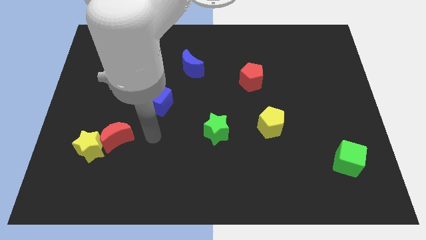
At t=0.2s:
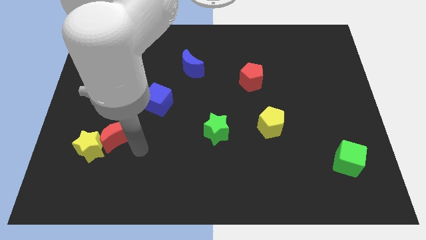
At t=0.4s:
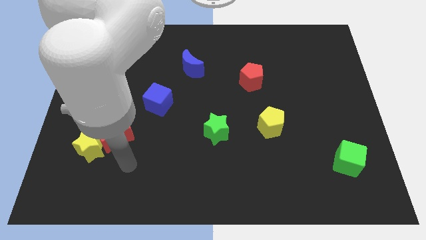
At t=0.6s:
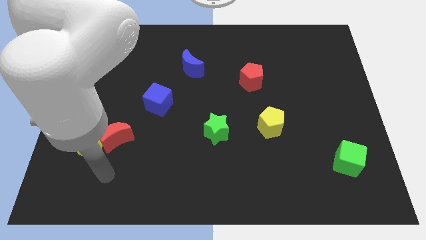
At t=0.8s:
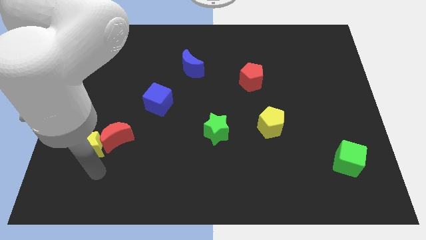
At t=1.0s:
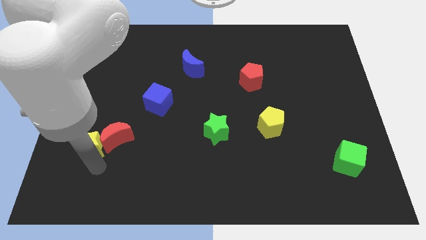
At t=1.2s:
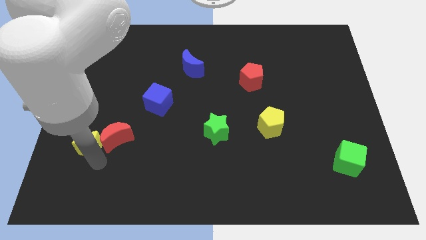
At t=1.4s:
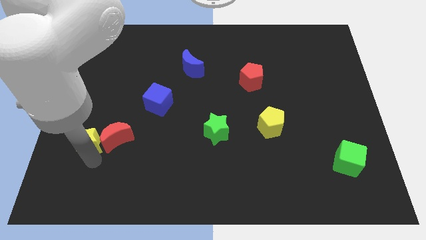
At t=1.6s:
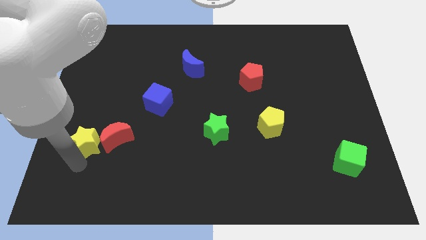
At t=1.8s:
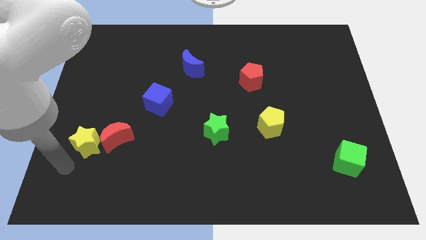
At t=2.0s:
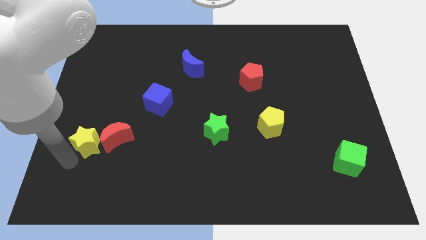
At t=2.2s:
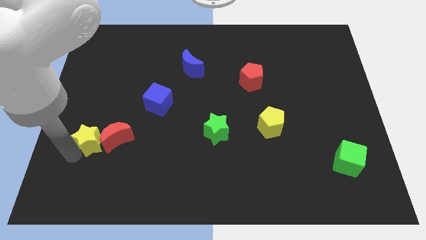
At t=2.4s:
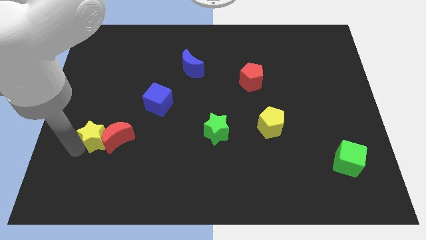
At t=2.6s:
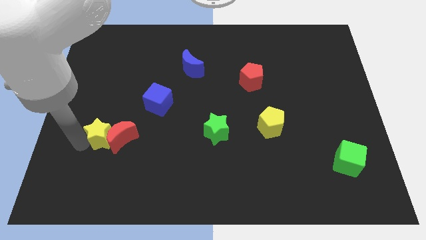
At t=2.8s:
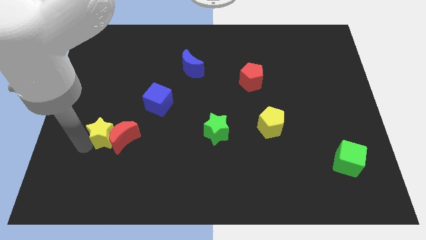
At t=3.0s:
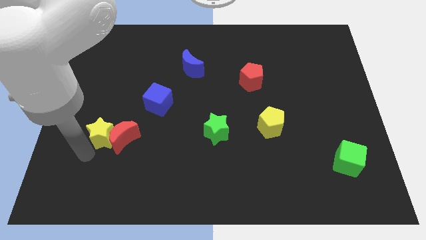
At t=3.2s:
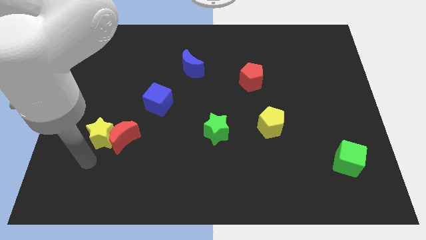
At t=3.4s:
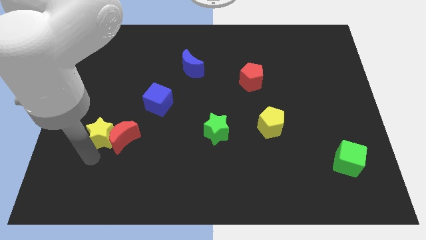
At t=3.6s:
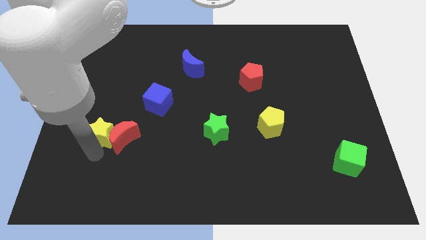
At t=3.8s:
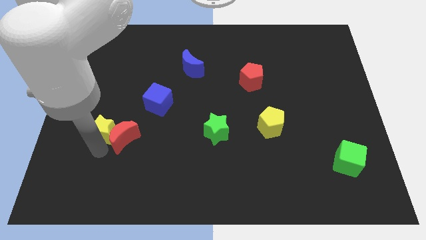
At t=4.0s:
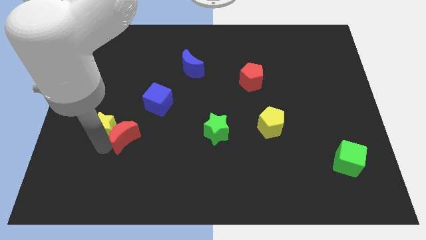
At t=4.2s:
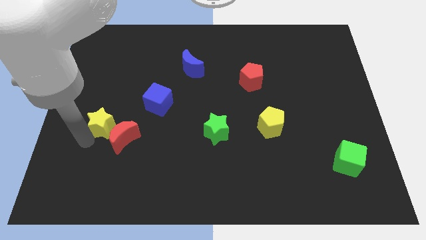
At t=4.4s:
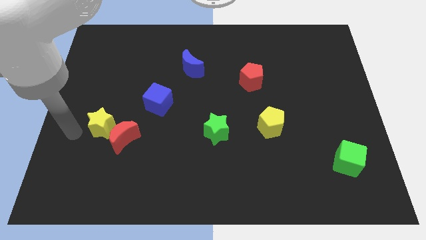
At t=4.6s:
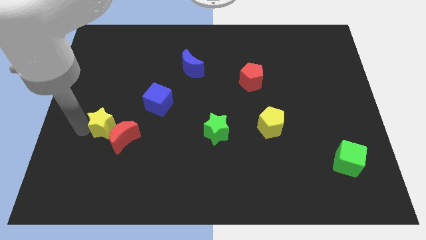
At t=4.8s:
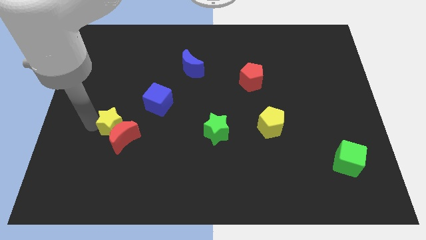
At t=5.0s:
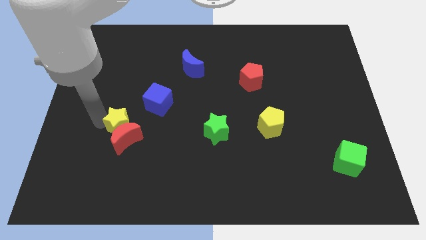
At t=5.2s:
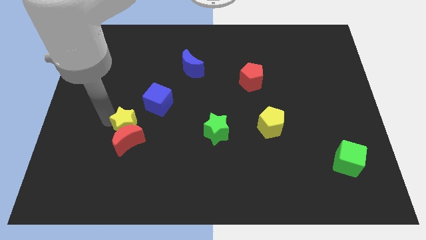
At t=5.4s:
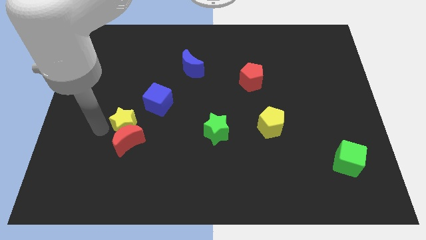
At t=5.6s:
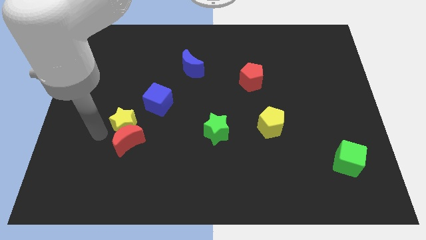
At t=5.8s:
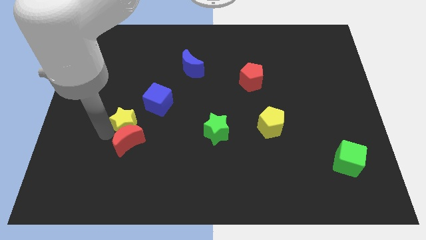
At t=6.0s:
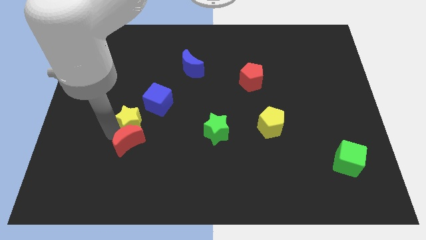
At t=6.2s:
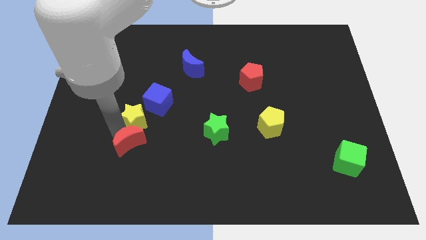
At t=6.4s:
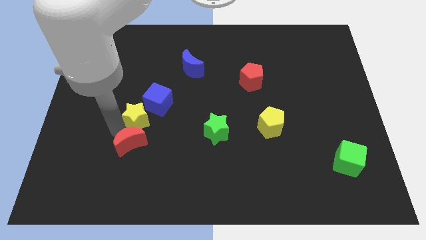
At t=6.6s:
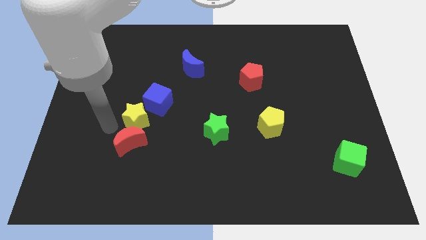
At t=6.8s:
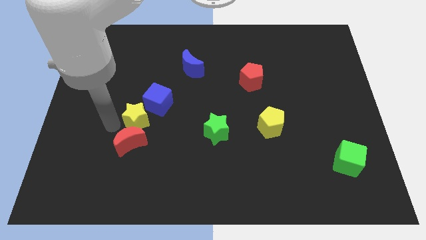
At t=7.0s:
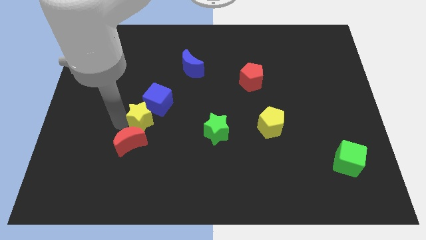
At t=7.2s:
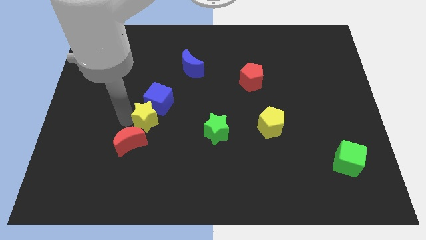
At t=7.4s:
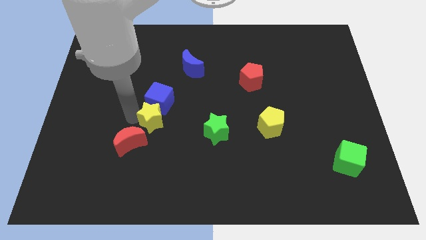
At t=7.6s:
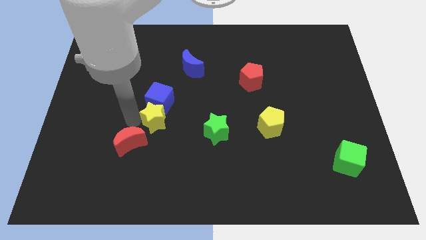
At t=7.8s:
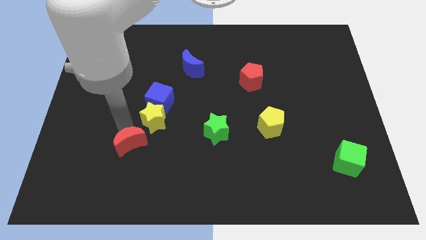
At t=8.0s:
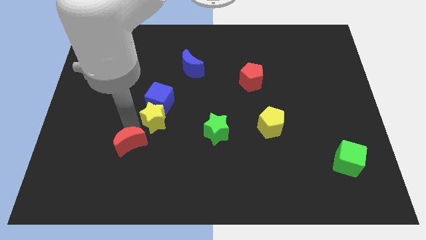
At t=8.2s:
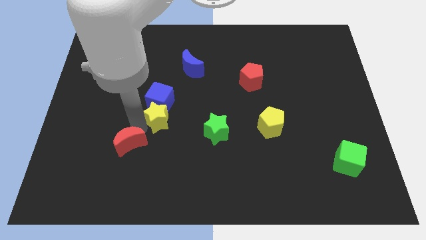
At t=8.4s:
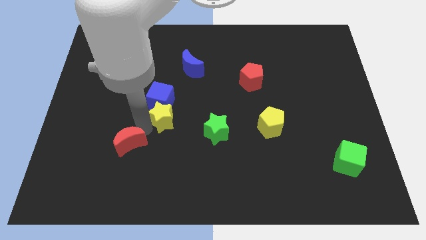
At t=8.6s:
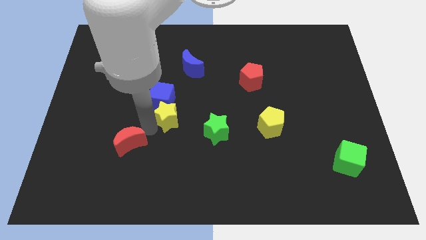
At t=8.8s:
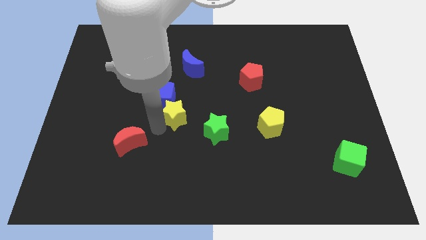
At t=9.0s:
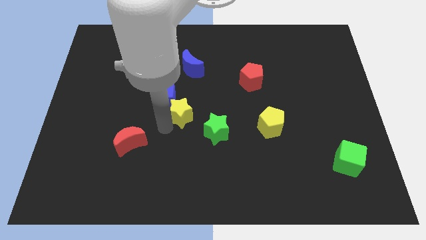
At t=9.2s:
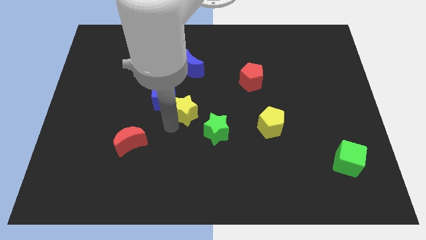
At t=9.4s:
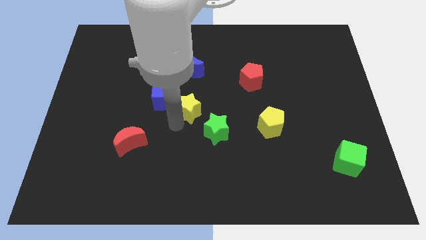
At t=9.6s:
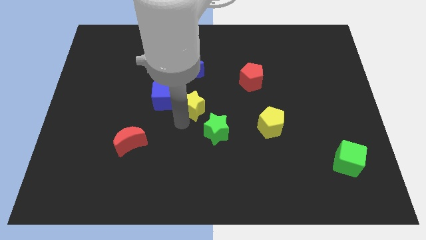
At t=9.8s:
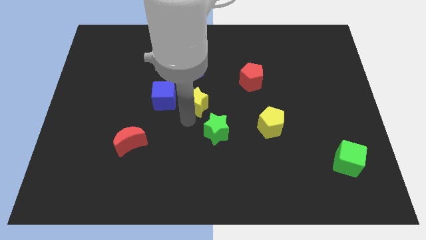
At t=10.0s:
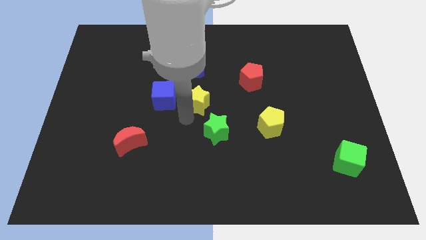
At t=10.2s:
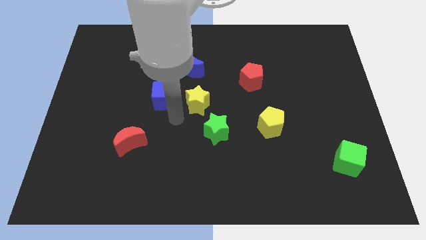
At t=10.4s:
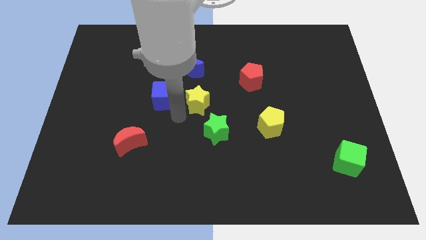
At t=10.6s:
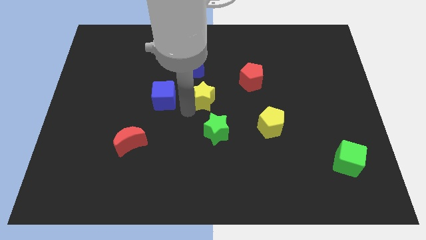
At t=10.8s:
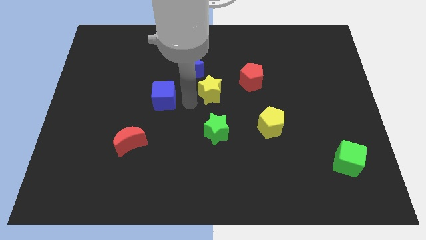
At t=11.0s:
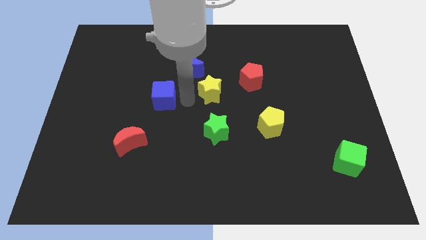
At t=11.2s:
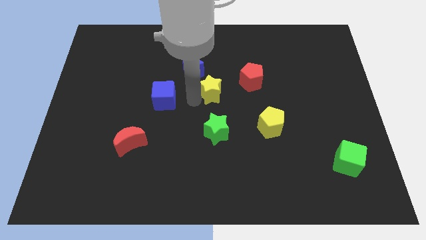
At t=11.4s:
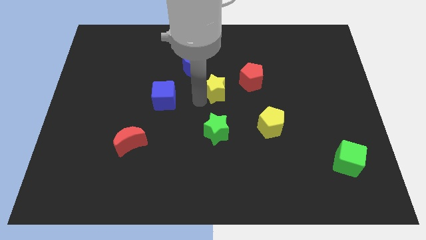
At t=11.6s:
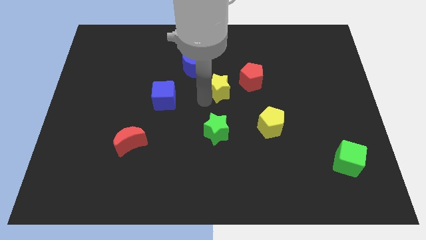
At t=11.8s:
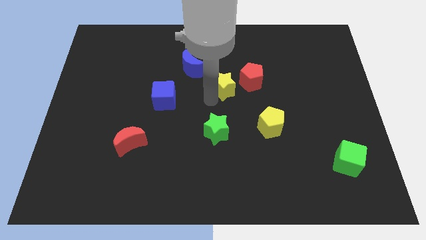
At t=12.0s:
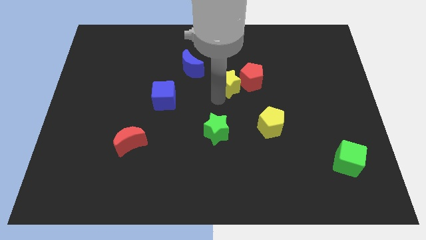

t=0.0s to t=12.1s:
slide the yellow star next to the red pentagon
